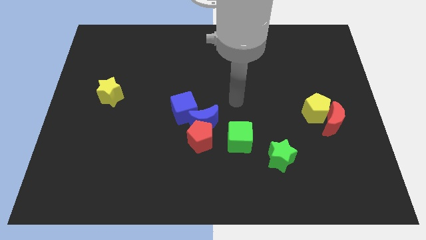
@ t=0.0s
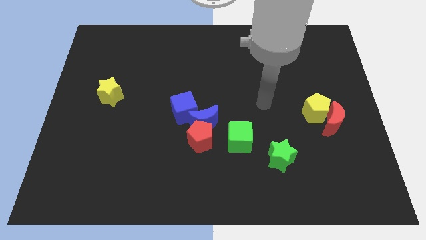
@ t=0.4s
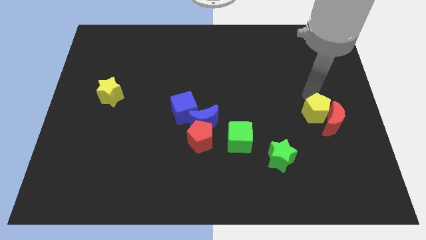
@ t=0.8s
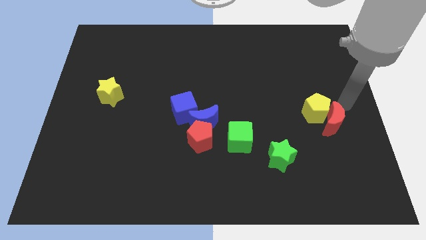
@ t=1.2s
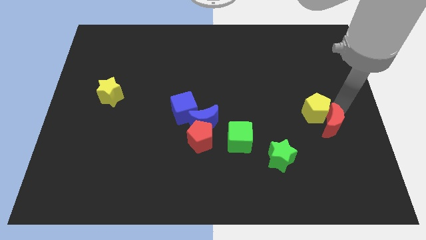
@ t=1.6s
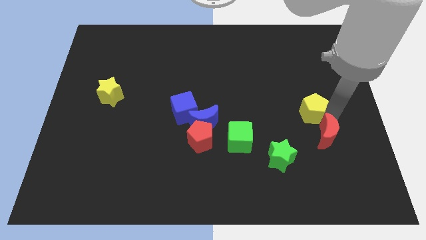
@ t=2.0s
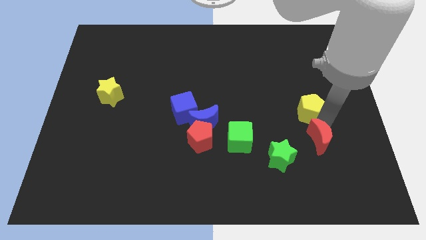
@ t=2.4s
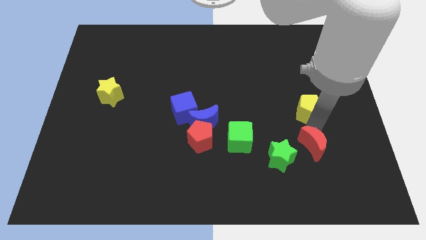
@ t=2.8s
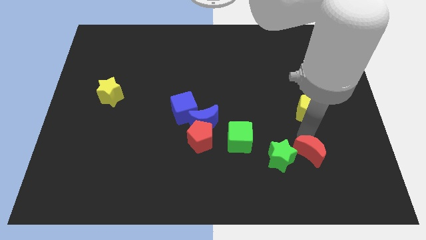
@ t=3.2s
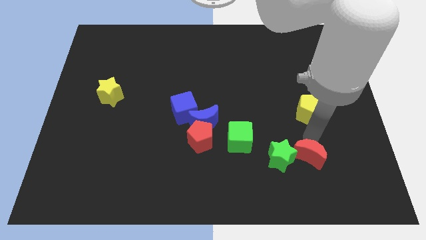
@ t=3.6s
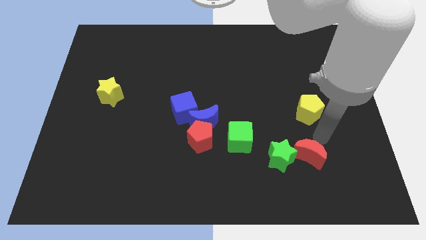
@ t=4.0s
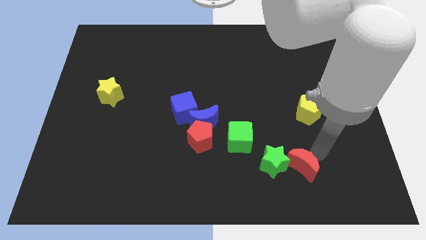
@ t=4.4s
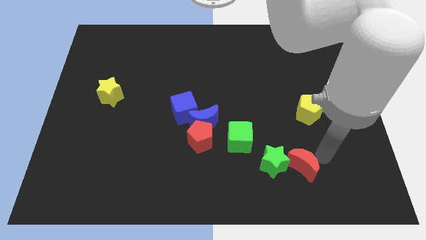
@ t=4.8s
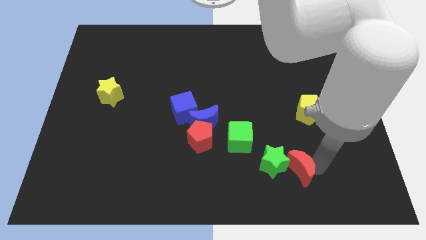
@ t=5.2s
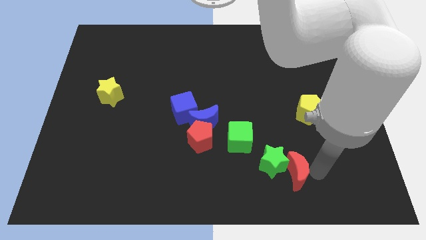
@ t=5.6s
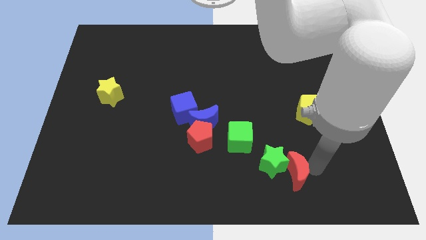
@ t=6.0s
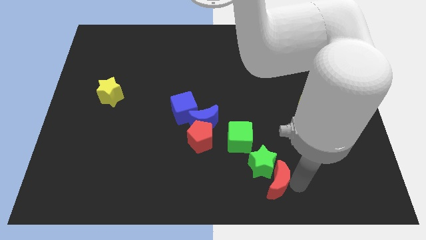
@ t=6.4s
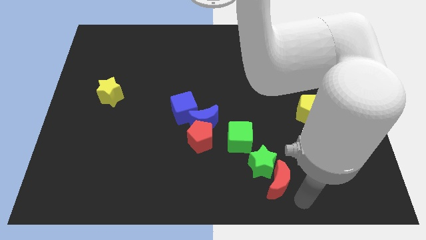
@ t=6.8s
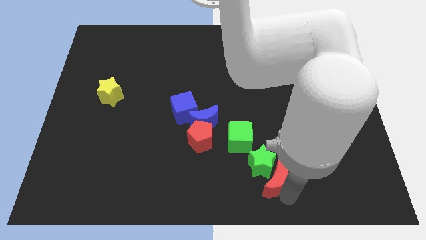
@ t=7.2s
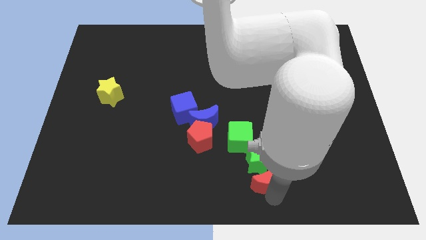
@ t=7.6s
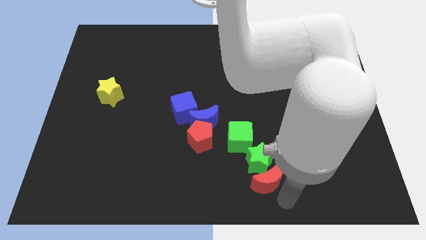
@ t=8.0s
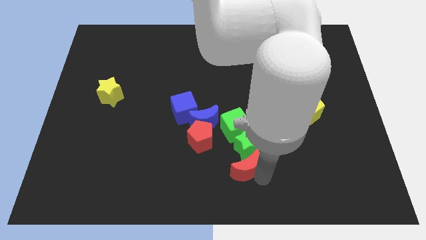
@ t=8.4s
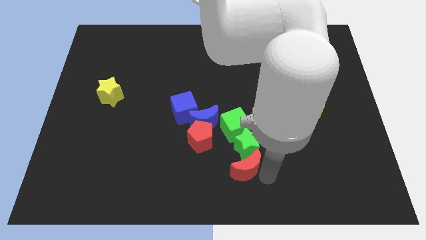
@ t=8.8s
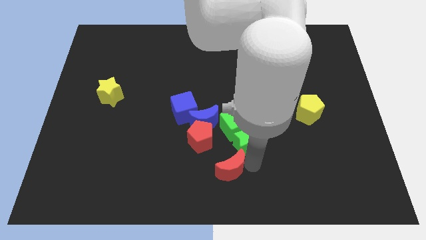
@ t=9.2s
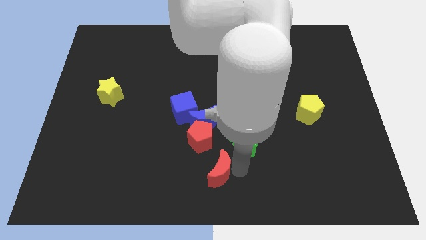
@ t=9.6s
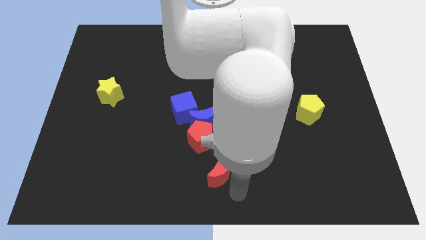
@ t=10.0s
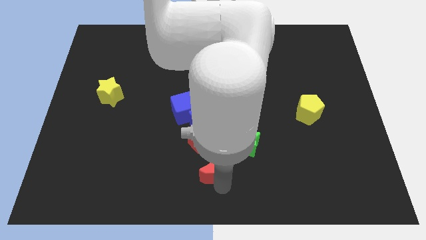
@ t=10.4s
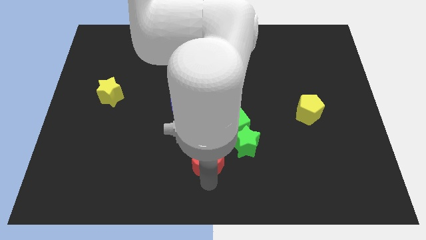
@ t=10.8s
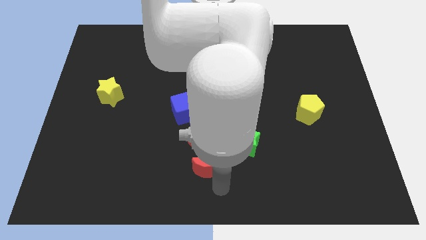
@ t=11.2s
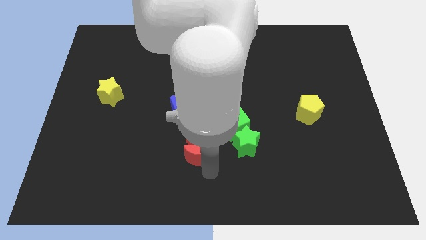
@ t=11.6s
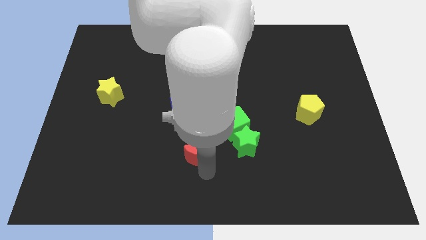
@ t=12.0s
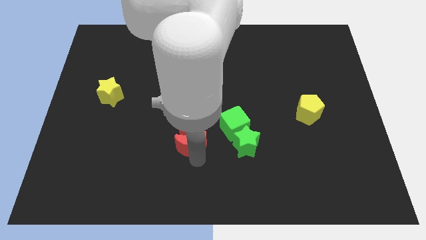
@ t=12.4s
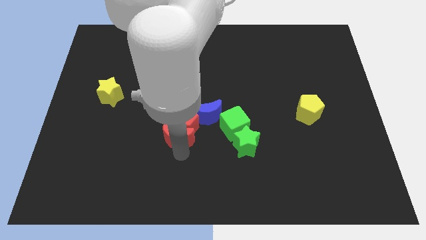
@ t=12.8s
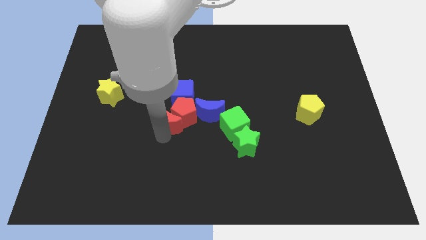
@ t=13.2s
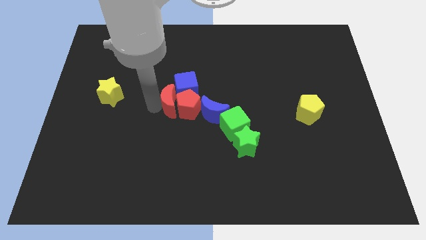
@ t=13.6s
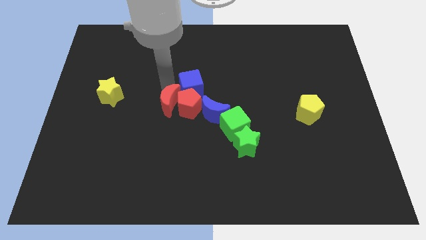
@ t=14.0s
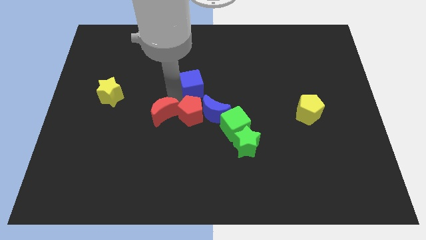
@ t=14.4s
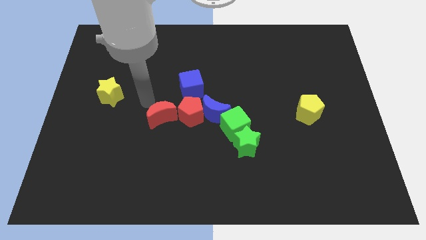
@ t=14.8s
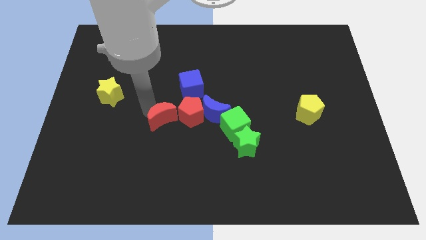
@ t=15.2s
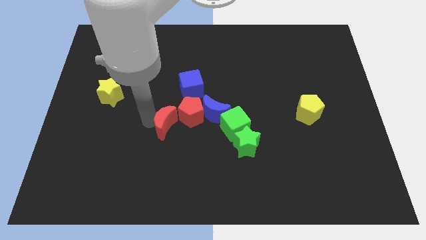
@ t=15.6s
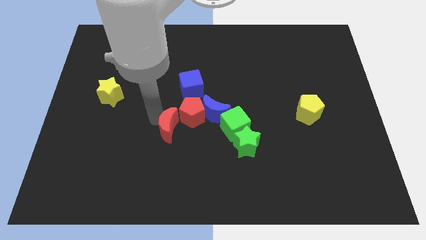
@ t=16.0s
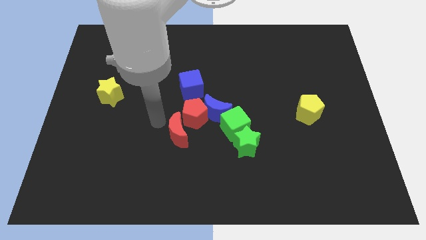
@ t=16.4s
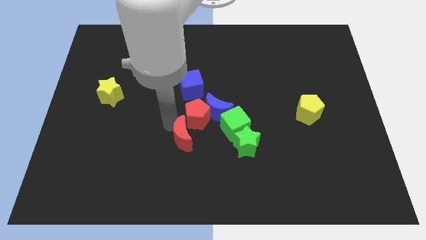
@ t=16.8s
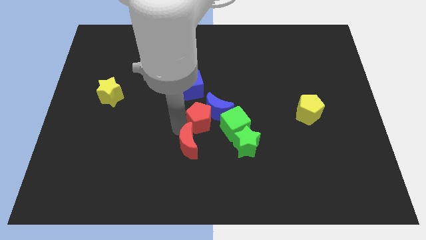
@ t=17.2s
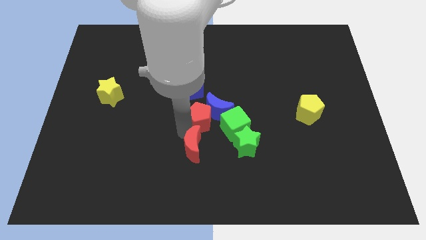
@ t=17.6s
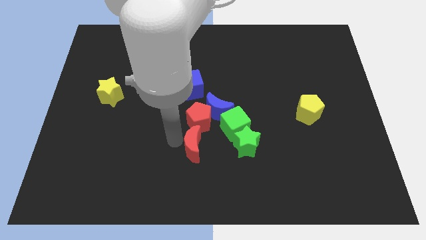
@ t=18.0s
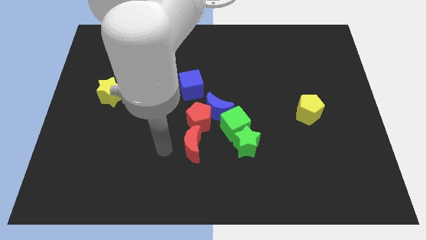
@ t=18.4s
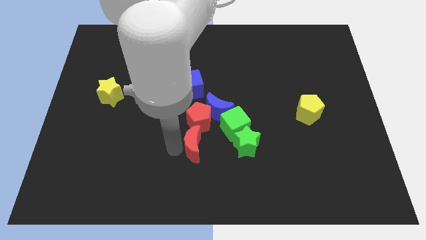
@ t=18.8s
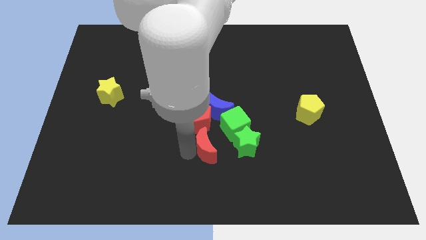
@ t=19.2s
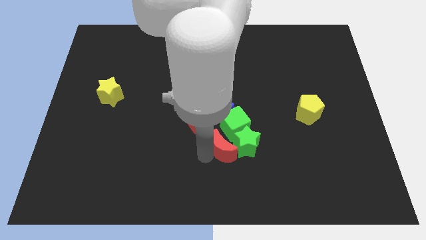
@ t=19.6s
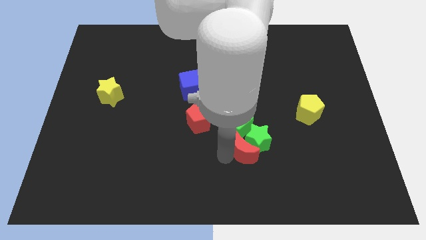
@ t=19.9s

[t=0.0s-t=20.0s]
move the red moon just left of the green star
